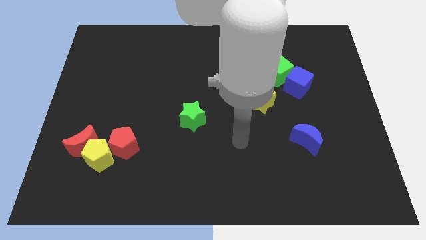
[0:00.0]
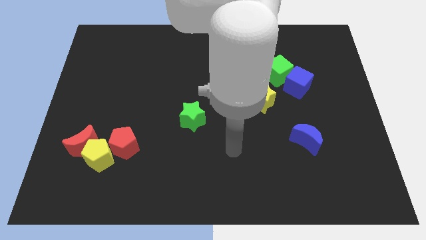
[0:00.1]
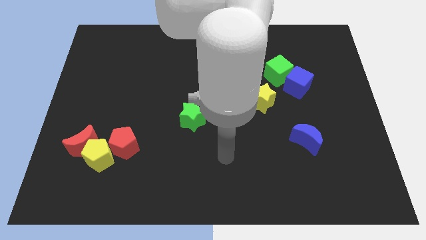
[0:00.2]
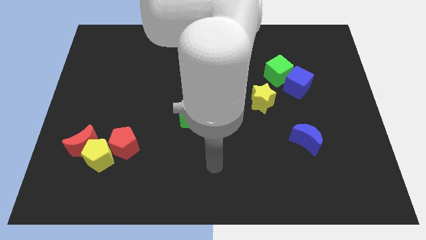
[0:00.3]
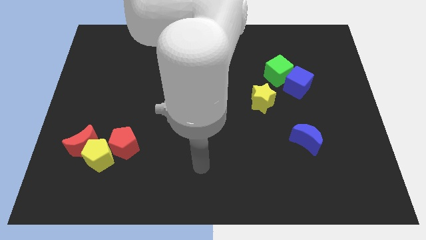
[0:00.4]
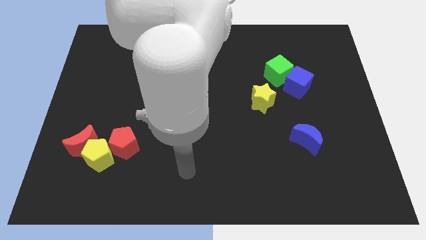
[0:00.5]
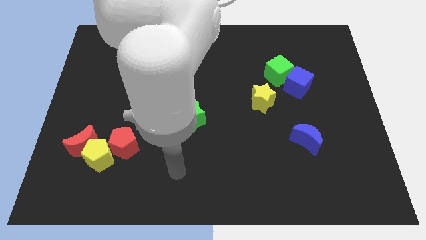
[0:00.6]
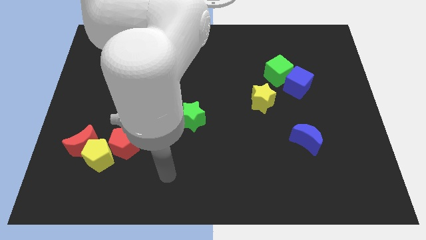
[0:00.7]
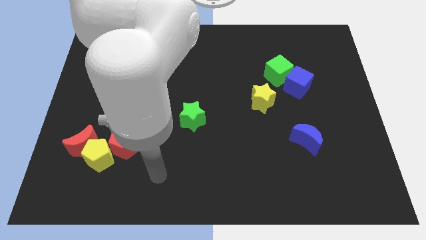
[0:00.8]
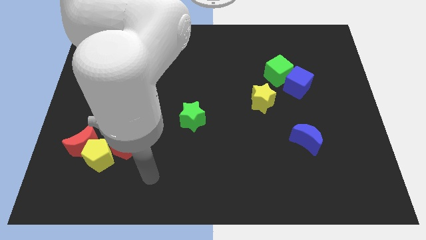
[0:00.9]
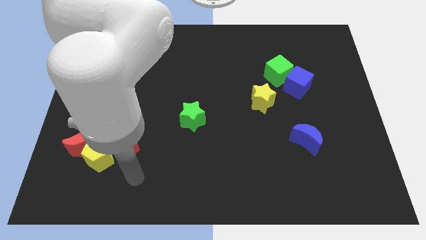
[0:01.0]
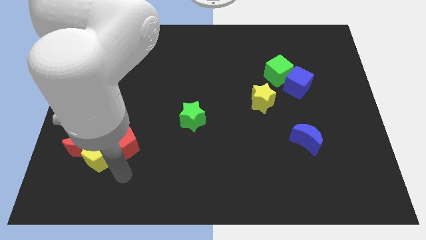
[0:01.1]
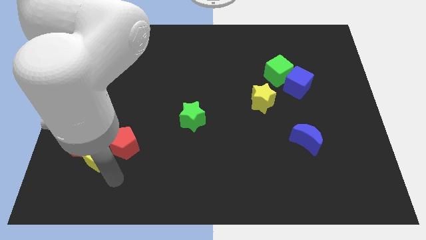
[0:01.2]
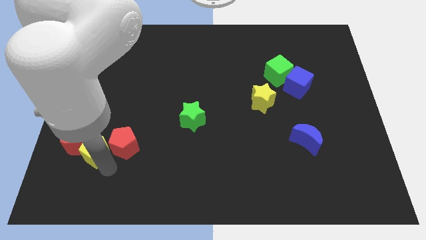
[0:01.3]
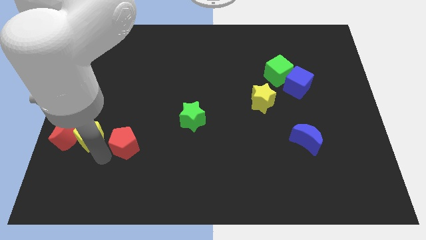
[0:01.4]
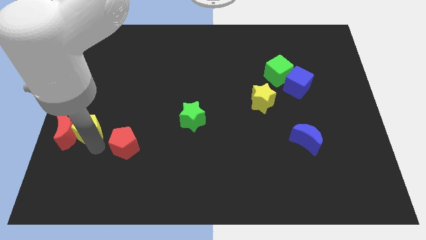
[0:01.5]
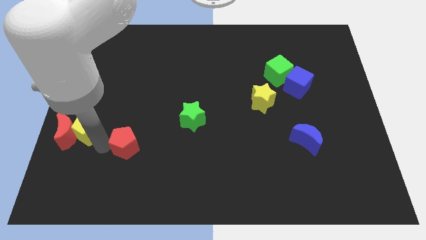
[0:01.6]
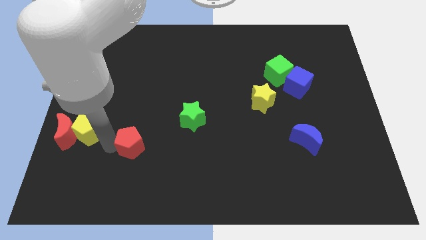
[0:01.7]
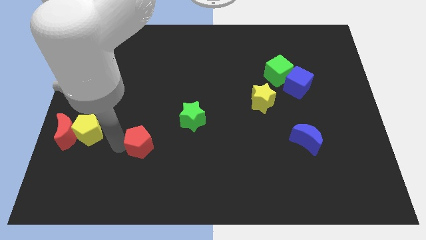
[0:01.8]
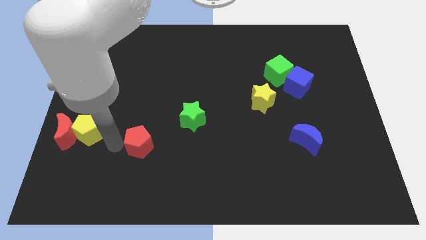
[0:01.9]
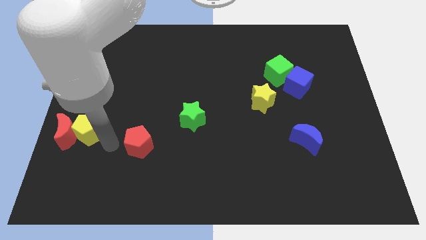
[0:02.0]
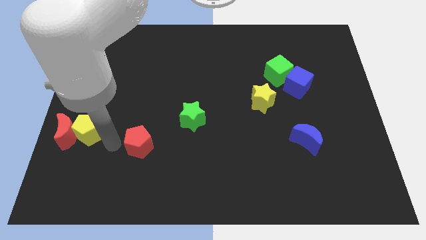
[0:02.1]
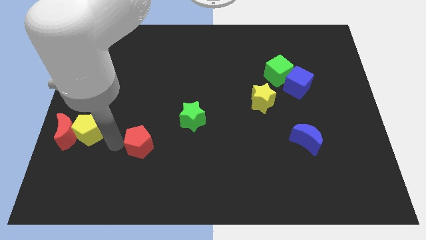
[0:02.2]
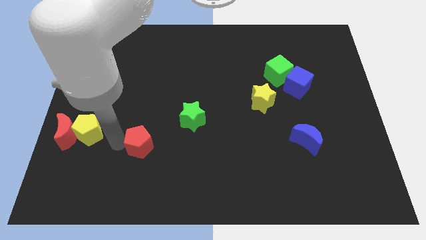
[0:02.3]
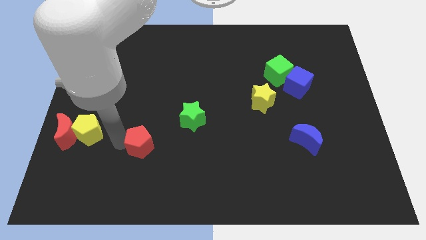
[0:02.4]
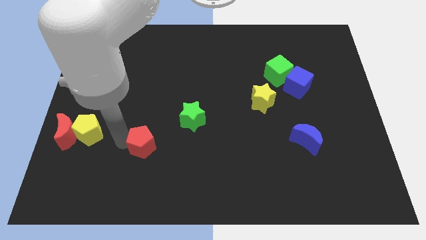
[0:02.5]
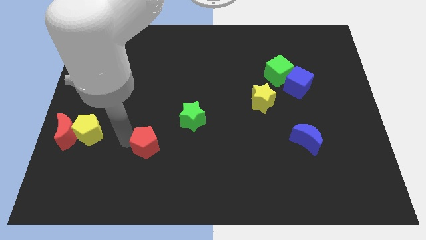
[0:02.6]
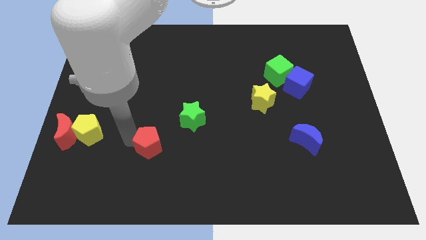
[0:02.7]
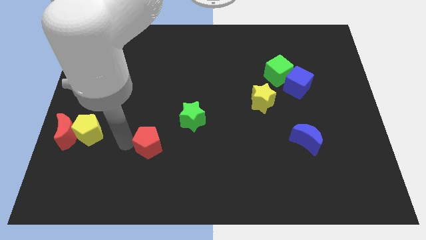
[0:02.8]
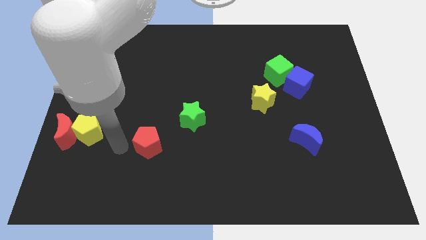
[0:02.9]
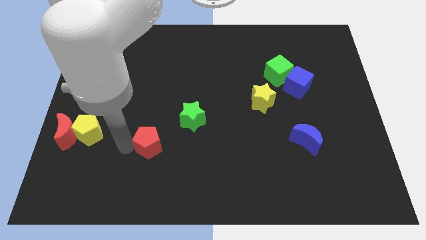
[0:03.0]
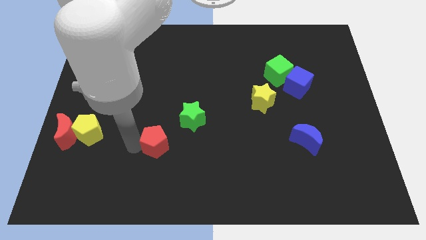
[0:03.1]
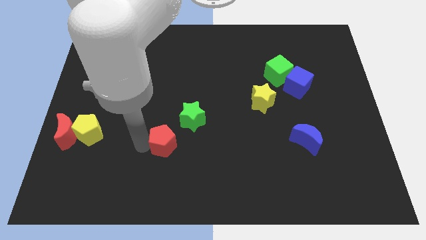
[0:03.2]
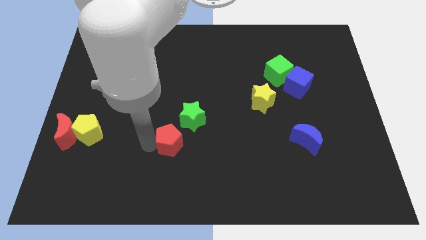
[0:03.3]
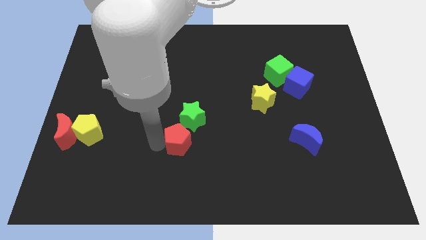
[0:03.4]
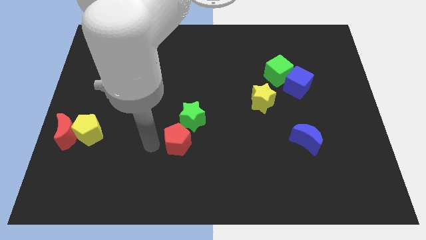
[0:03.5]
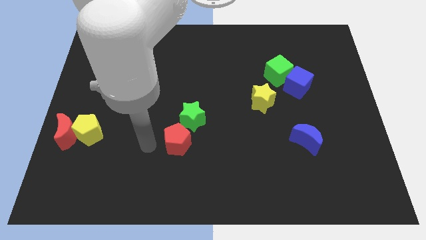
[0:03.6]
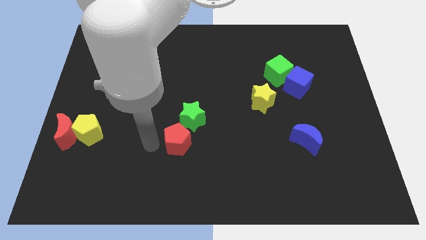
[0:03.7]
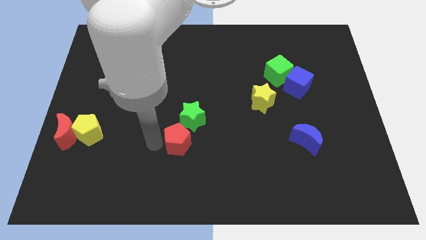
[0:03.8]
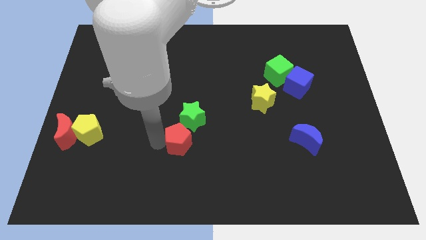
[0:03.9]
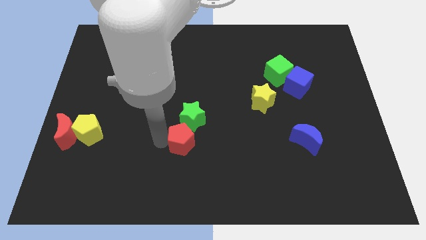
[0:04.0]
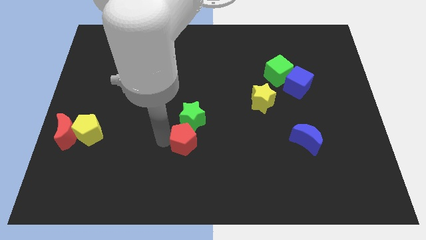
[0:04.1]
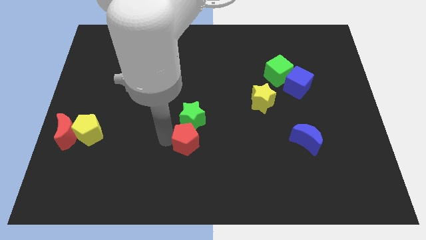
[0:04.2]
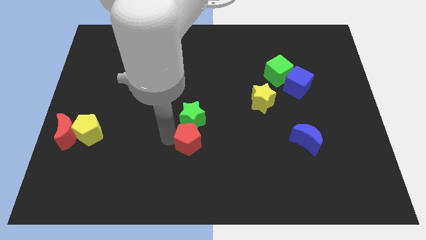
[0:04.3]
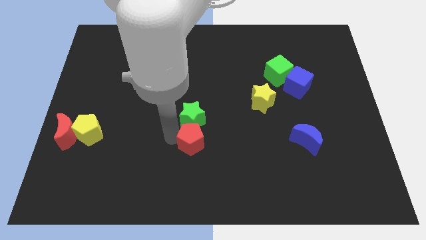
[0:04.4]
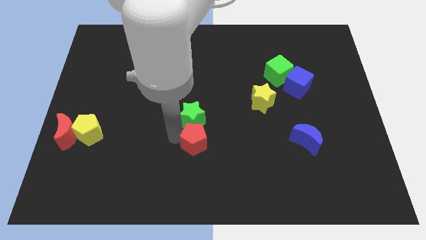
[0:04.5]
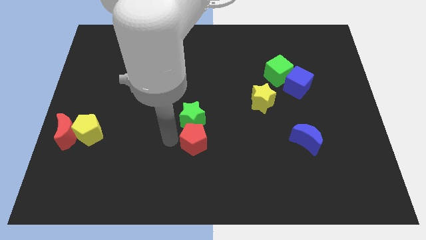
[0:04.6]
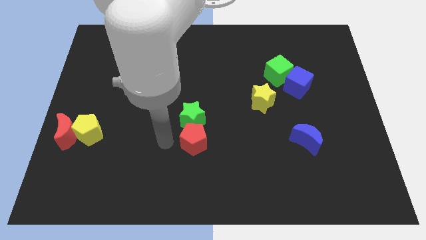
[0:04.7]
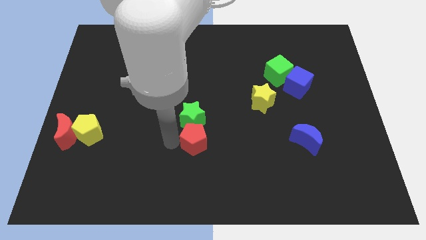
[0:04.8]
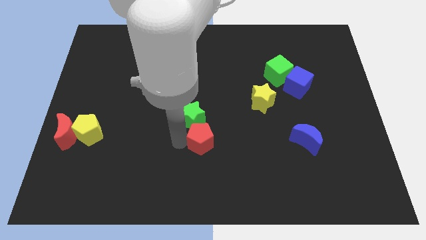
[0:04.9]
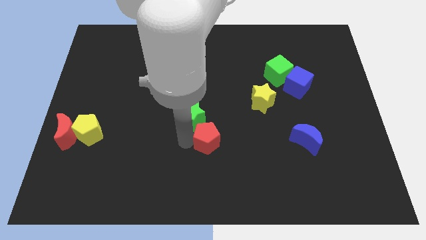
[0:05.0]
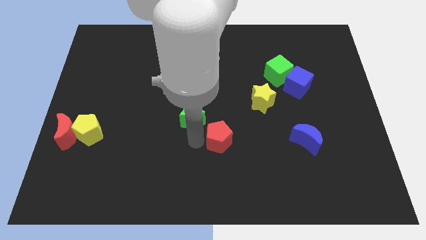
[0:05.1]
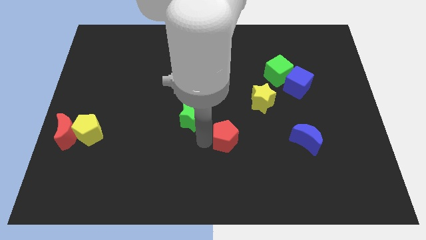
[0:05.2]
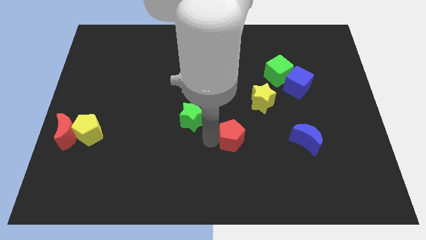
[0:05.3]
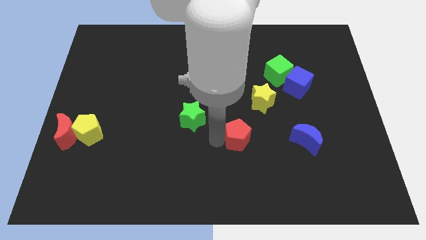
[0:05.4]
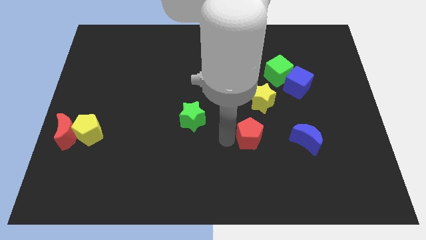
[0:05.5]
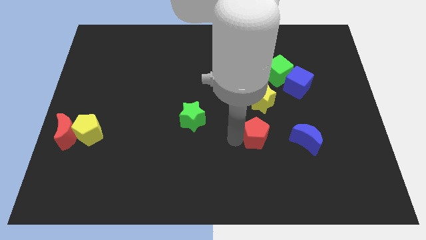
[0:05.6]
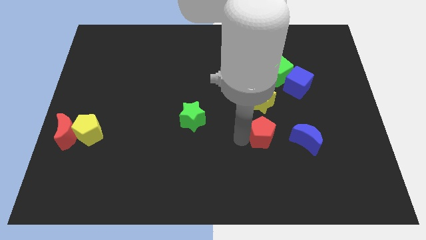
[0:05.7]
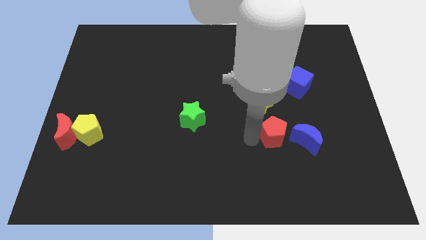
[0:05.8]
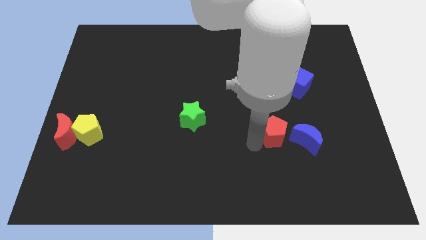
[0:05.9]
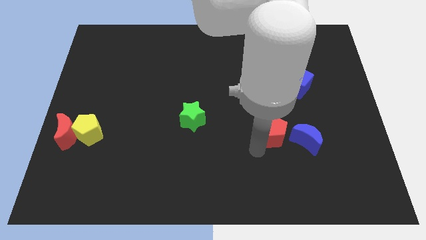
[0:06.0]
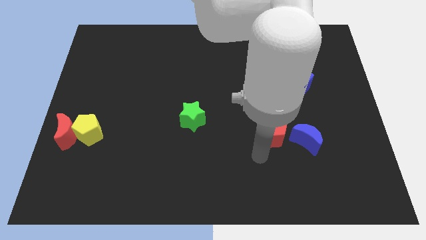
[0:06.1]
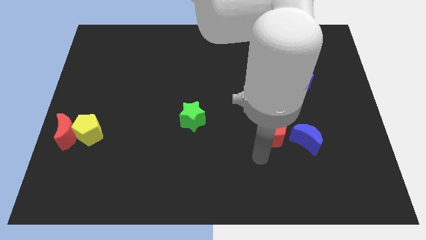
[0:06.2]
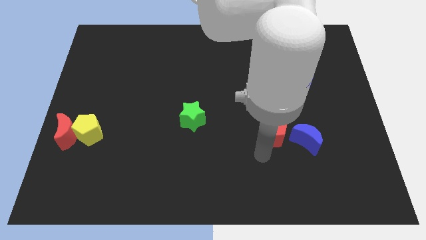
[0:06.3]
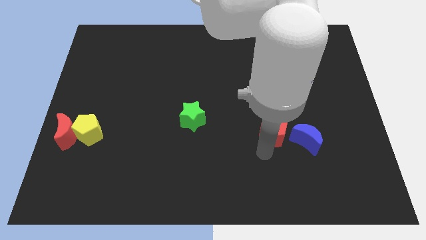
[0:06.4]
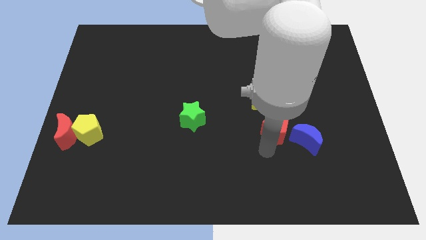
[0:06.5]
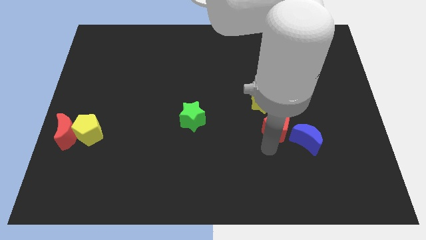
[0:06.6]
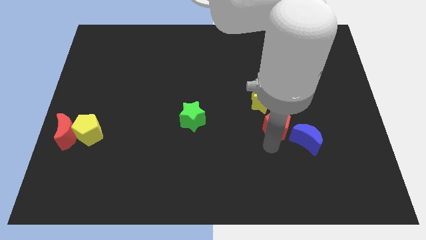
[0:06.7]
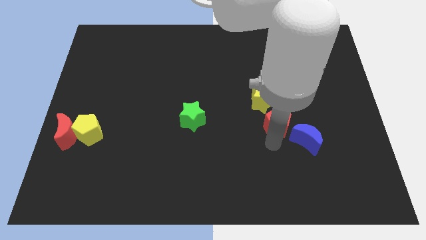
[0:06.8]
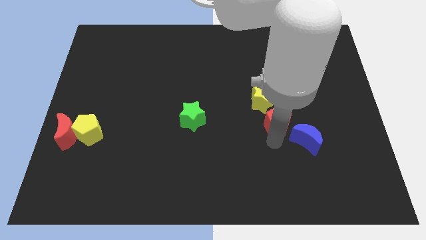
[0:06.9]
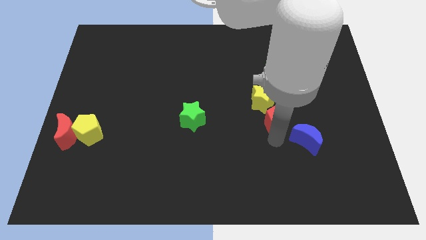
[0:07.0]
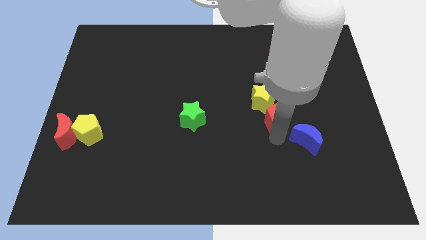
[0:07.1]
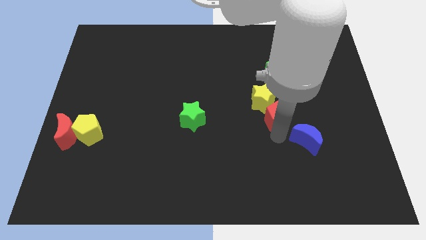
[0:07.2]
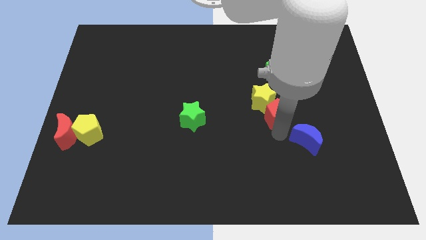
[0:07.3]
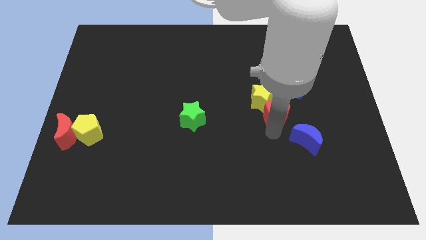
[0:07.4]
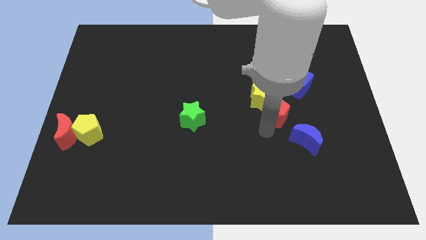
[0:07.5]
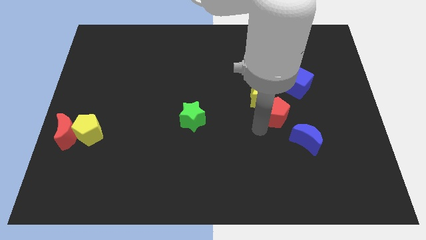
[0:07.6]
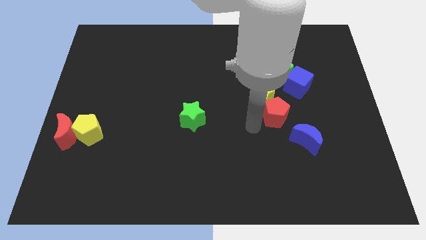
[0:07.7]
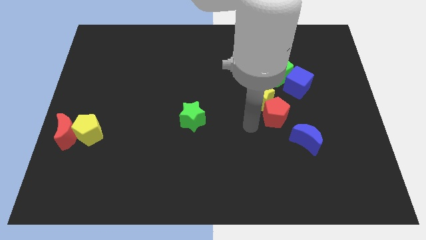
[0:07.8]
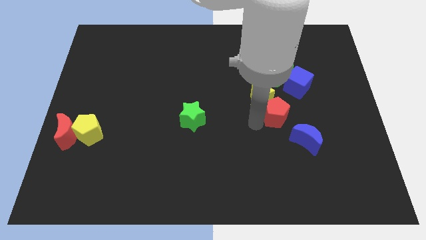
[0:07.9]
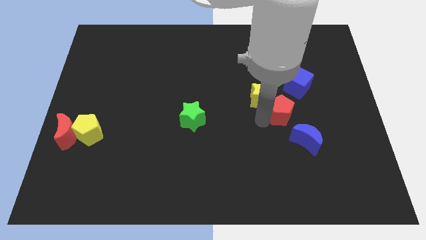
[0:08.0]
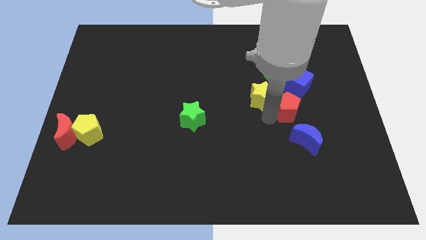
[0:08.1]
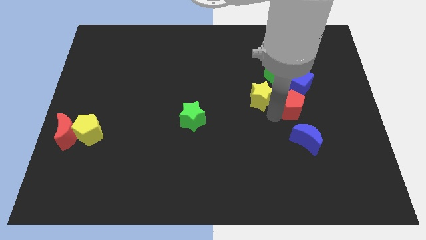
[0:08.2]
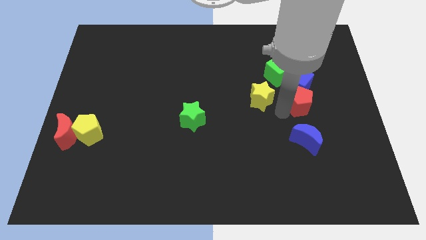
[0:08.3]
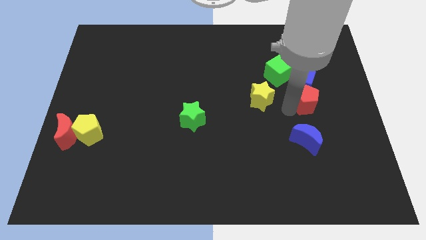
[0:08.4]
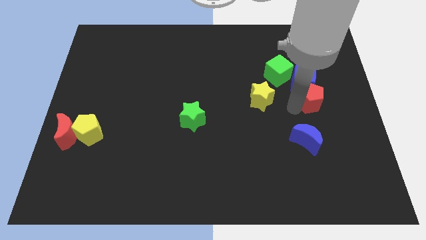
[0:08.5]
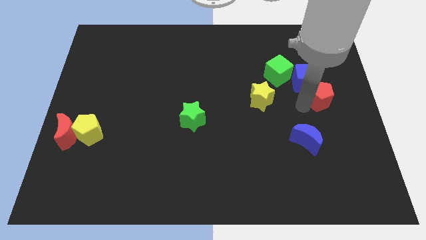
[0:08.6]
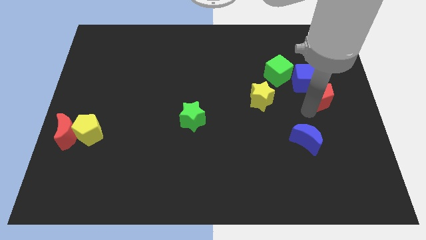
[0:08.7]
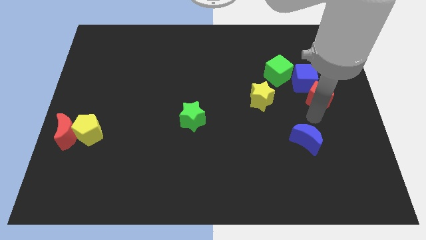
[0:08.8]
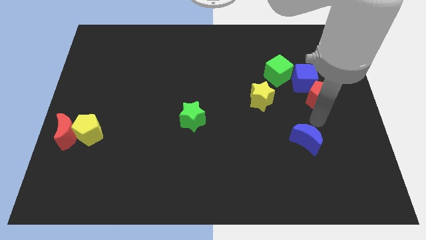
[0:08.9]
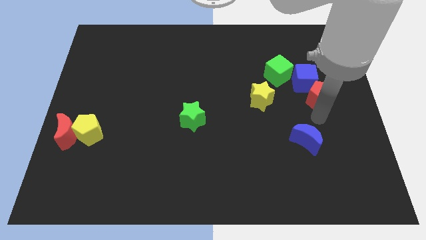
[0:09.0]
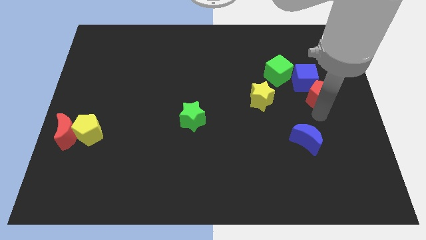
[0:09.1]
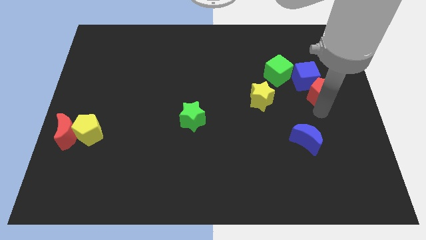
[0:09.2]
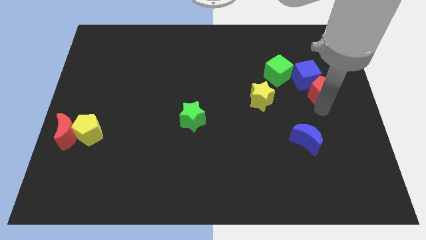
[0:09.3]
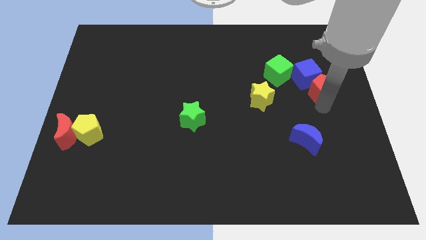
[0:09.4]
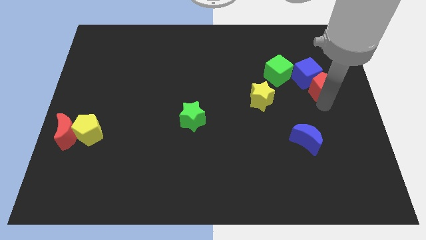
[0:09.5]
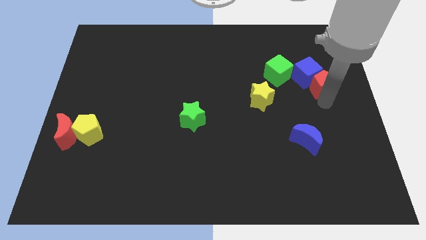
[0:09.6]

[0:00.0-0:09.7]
push the red pentagon right of the green cube
